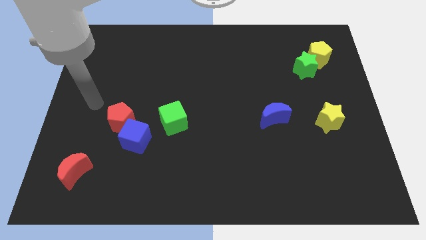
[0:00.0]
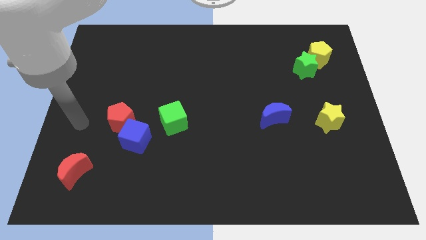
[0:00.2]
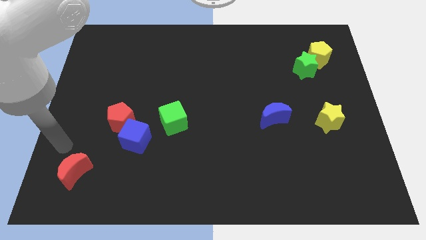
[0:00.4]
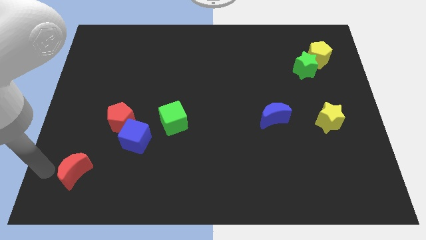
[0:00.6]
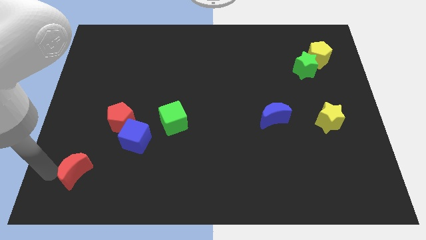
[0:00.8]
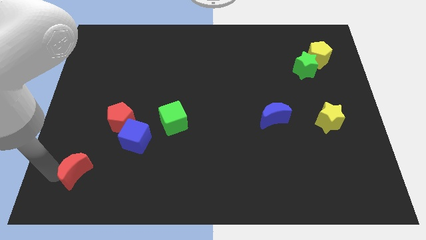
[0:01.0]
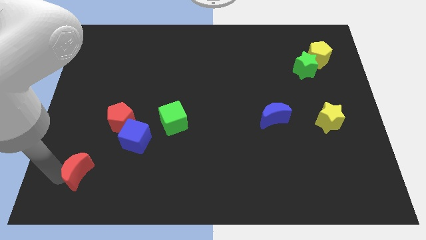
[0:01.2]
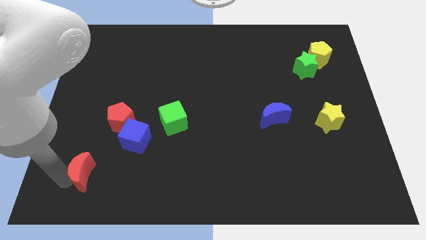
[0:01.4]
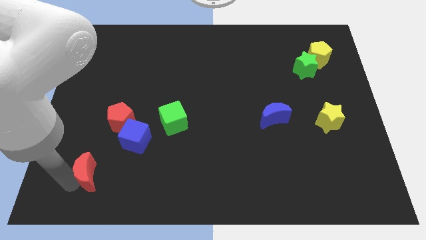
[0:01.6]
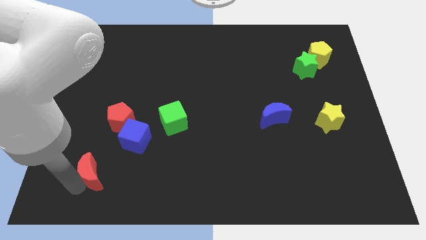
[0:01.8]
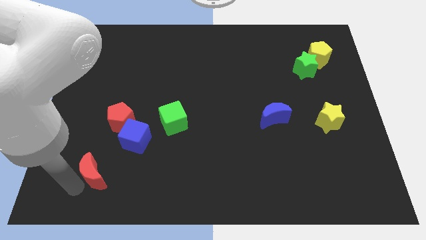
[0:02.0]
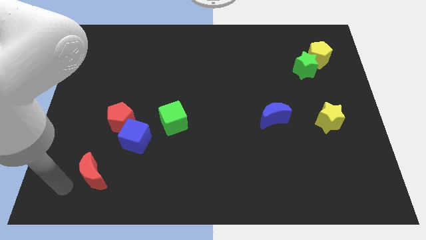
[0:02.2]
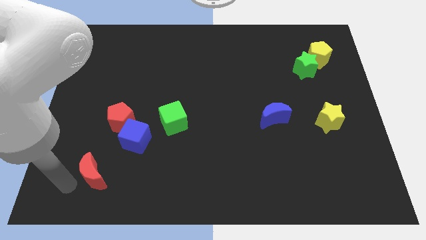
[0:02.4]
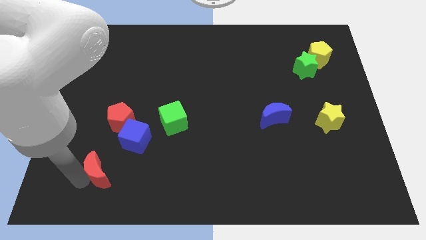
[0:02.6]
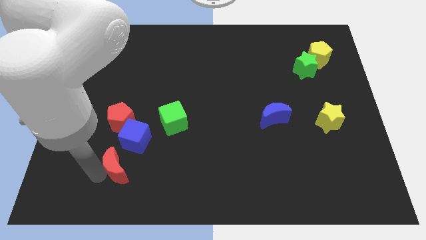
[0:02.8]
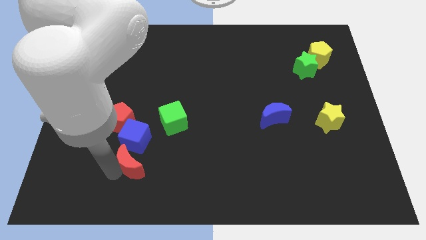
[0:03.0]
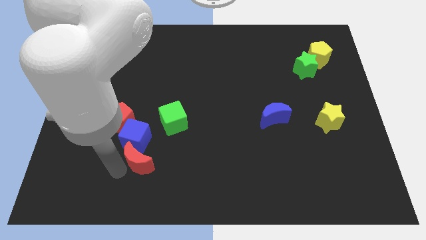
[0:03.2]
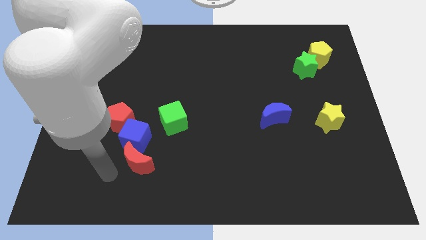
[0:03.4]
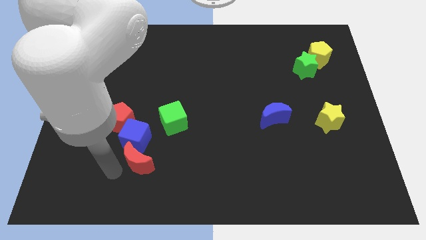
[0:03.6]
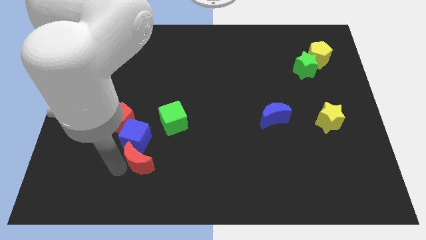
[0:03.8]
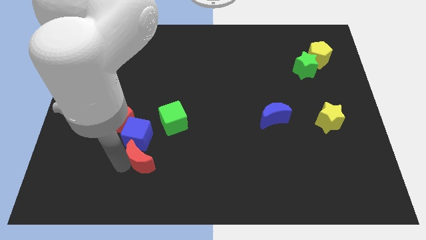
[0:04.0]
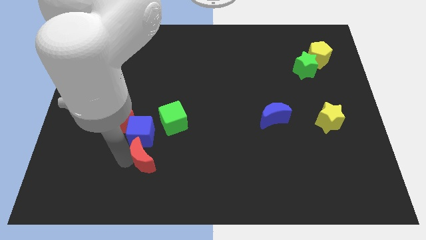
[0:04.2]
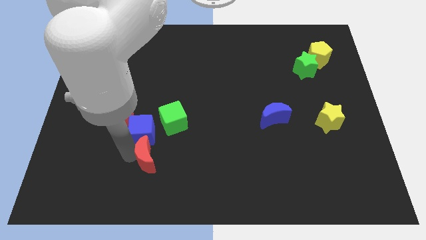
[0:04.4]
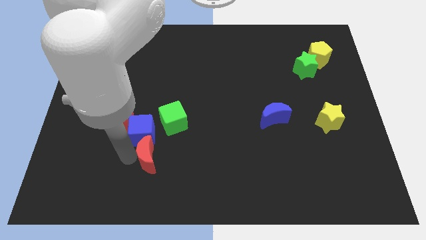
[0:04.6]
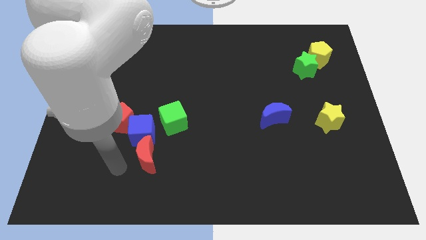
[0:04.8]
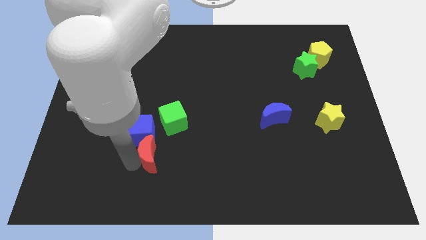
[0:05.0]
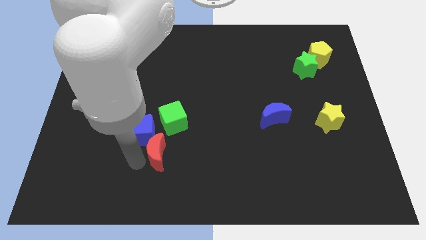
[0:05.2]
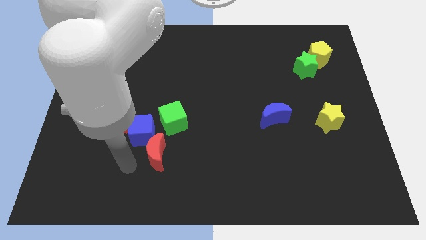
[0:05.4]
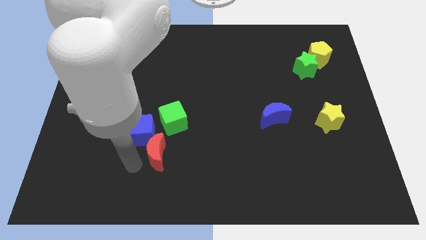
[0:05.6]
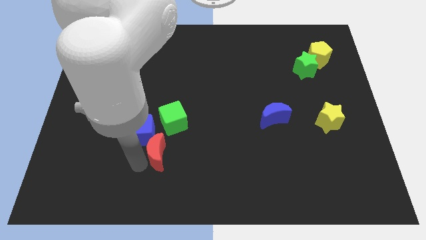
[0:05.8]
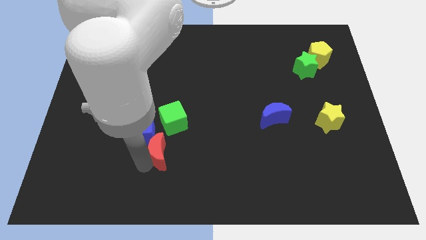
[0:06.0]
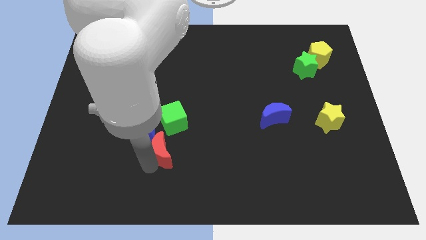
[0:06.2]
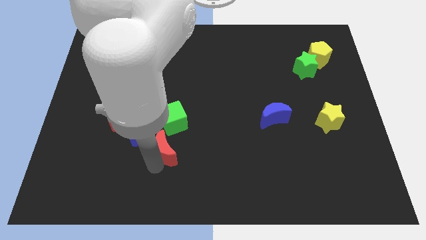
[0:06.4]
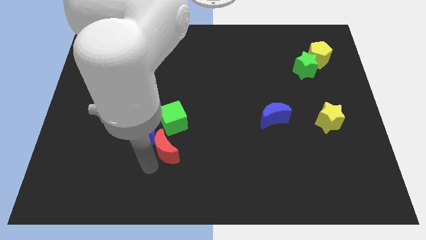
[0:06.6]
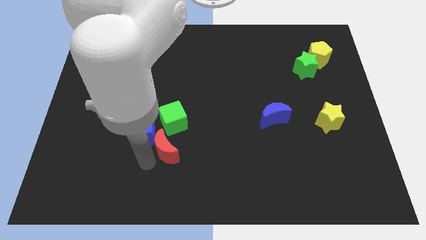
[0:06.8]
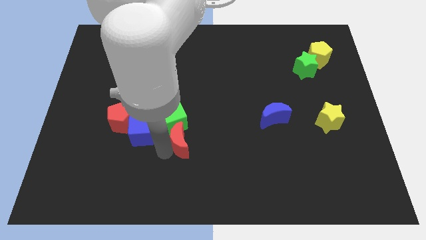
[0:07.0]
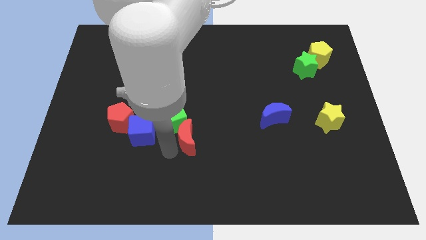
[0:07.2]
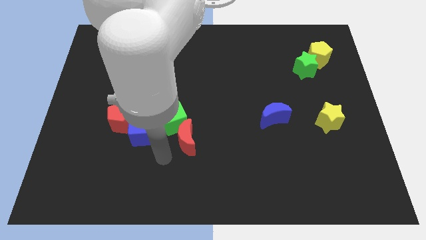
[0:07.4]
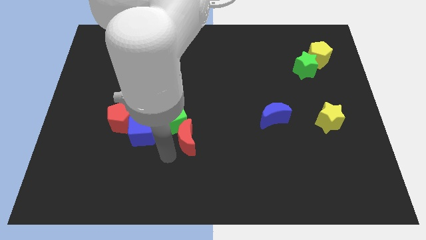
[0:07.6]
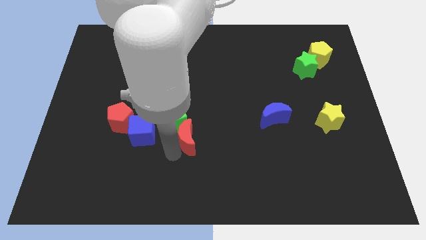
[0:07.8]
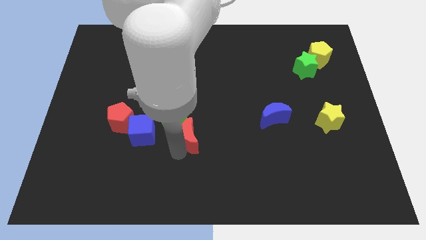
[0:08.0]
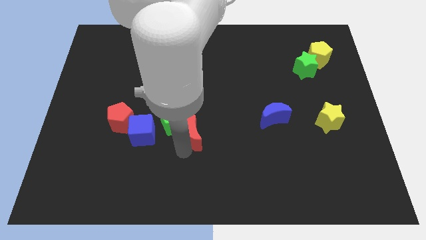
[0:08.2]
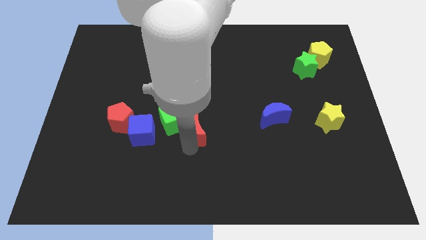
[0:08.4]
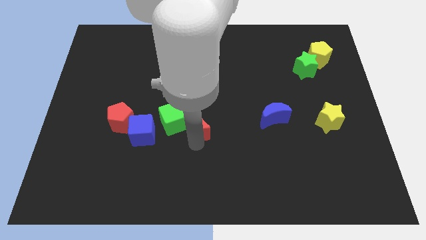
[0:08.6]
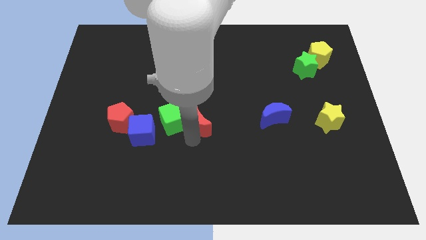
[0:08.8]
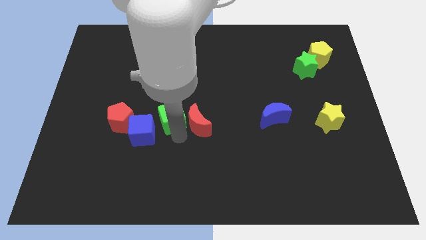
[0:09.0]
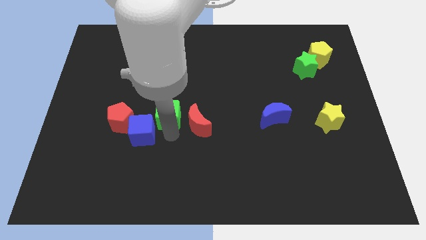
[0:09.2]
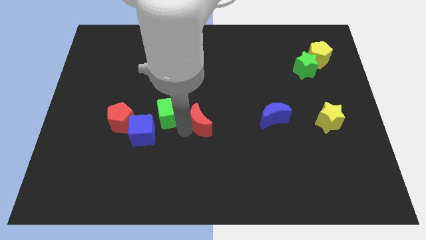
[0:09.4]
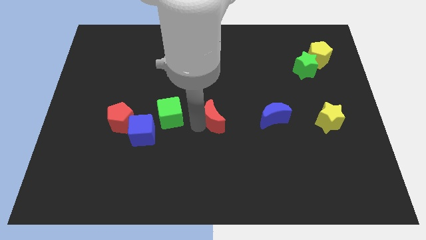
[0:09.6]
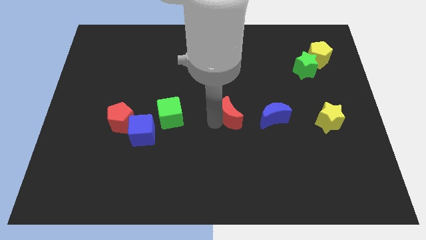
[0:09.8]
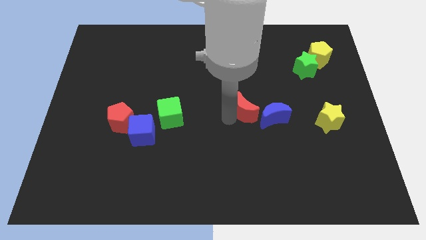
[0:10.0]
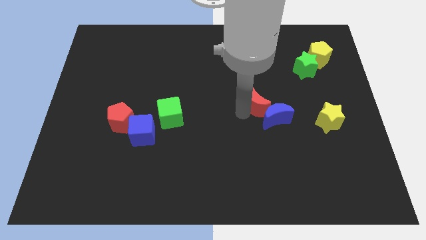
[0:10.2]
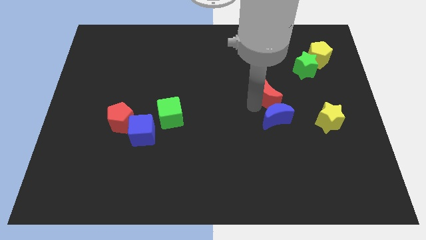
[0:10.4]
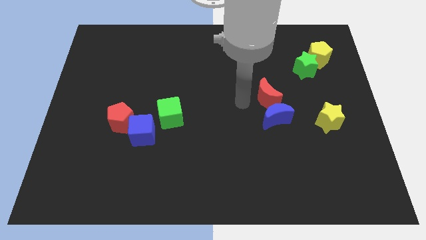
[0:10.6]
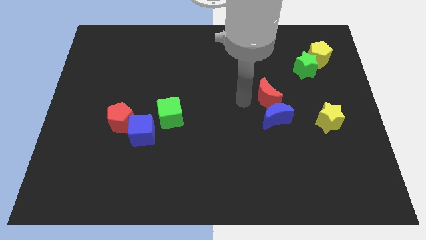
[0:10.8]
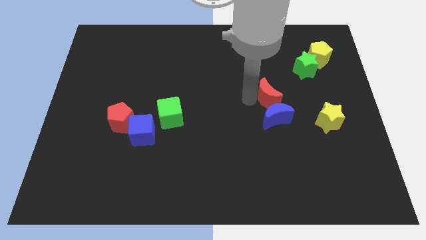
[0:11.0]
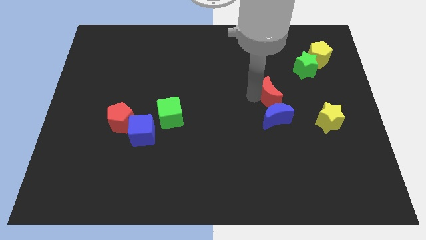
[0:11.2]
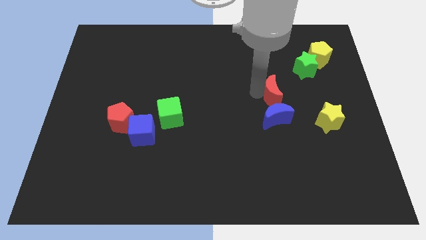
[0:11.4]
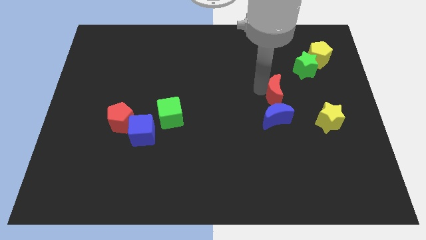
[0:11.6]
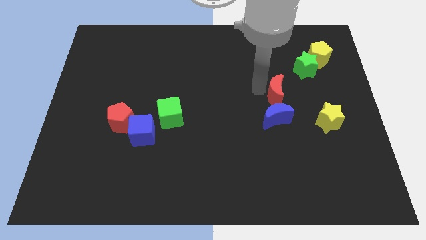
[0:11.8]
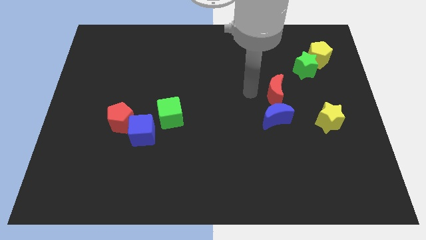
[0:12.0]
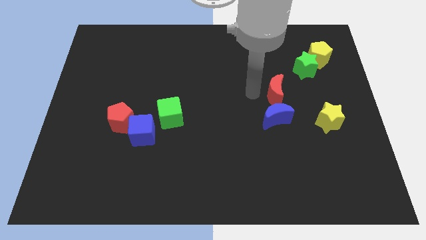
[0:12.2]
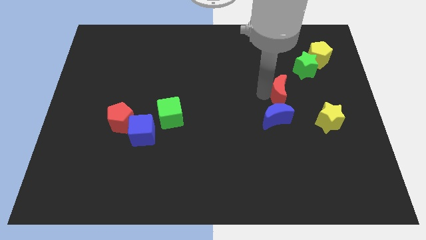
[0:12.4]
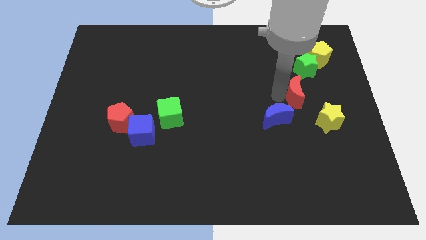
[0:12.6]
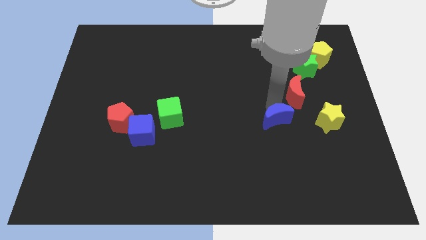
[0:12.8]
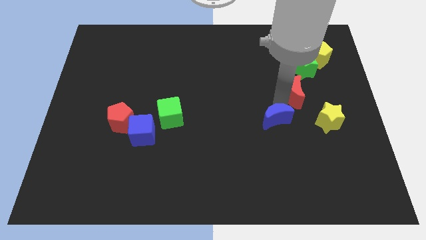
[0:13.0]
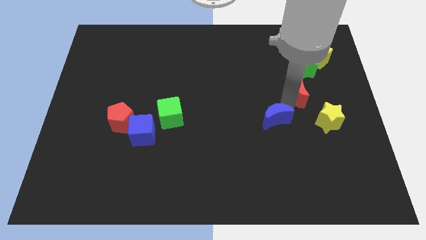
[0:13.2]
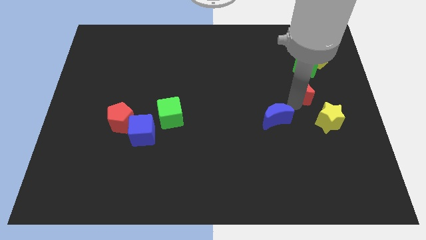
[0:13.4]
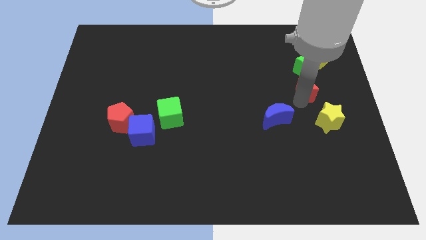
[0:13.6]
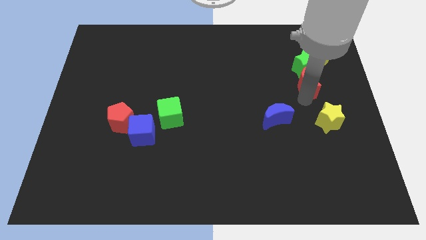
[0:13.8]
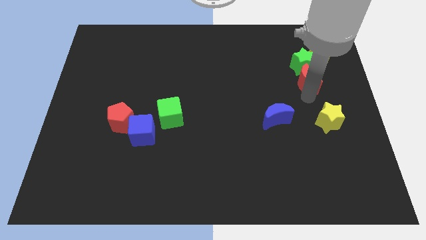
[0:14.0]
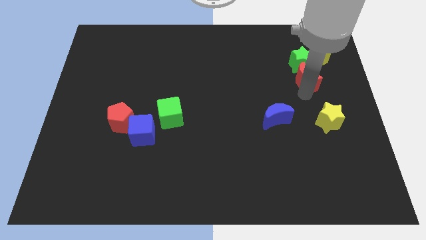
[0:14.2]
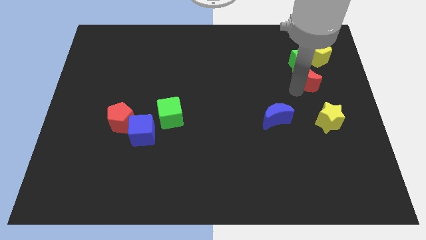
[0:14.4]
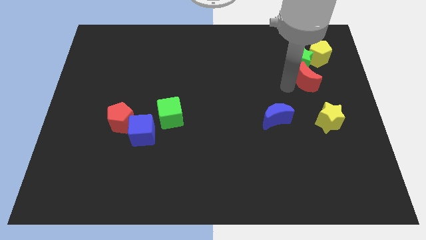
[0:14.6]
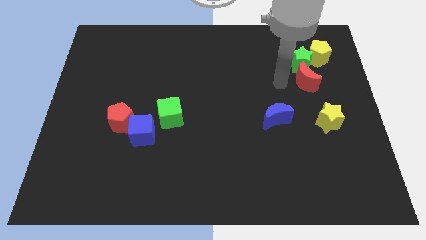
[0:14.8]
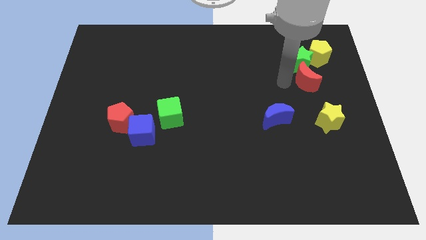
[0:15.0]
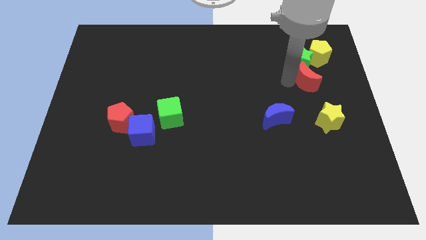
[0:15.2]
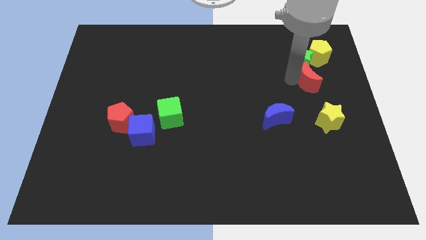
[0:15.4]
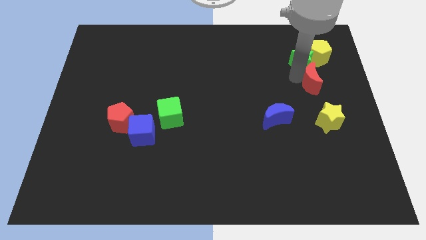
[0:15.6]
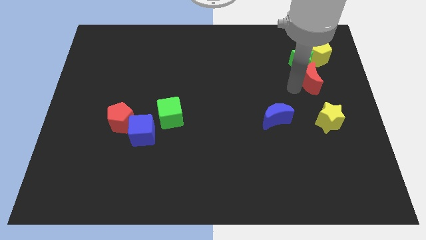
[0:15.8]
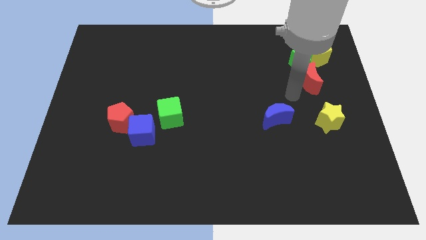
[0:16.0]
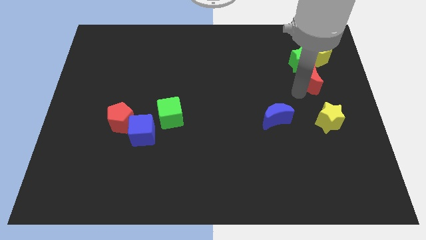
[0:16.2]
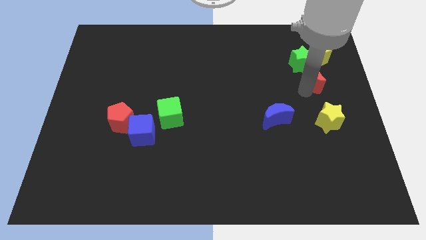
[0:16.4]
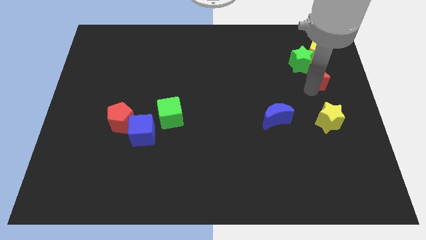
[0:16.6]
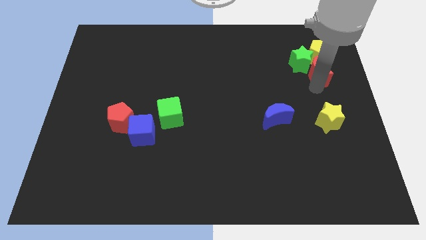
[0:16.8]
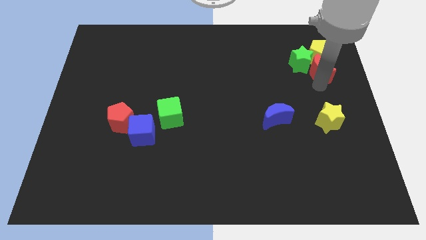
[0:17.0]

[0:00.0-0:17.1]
put the red moon to the yellow pentagon
